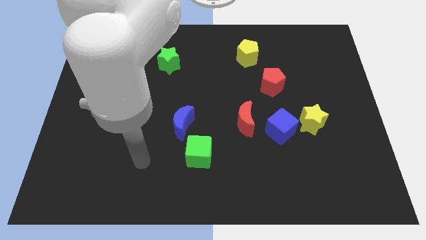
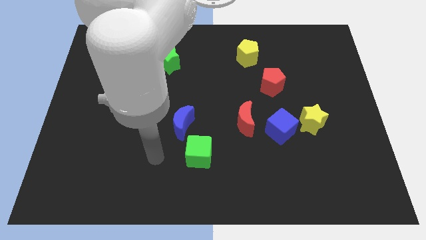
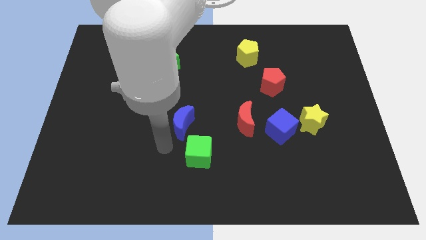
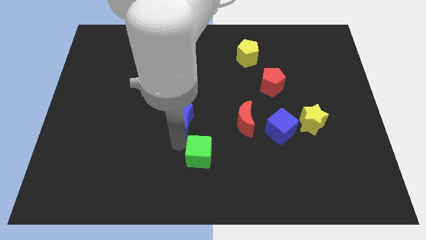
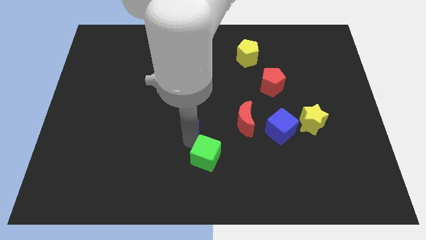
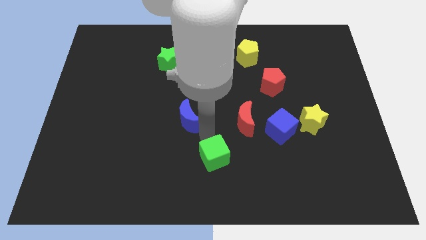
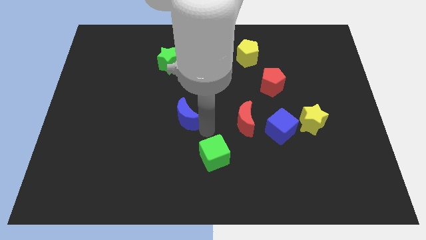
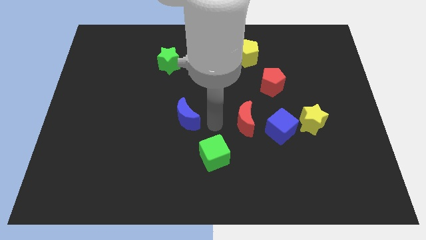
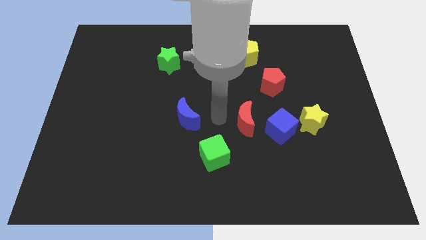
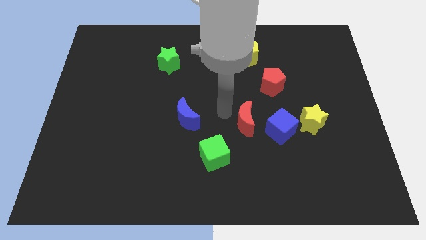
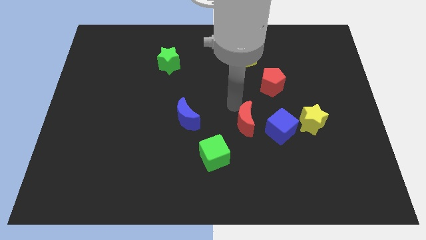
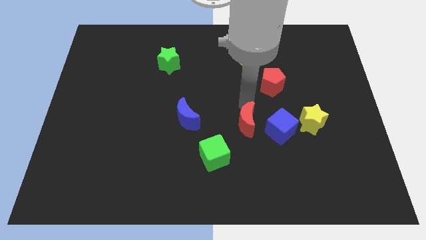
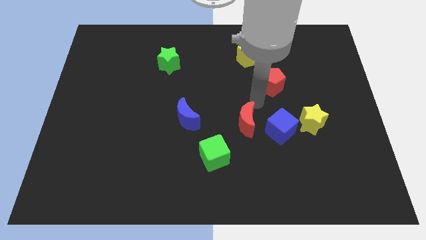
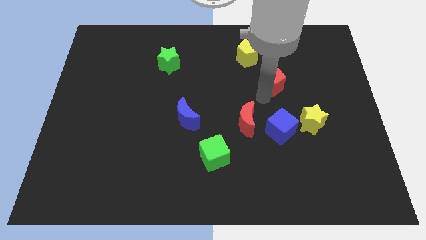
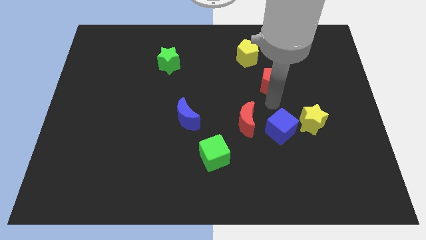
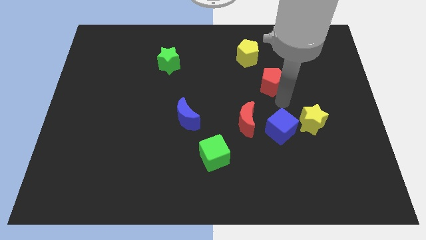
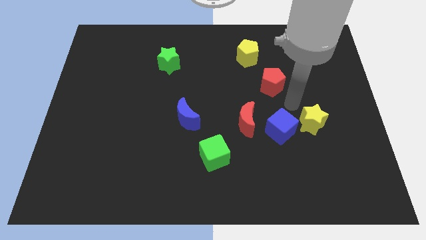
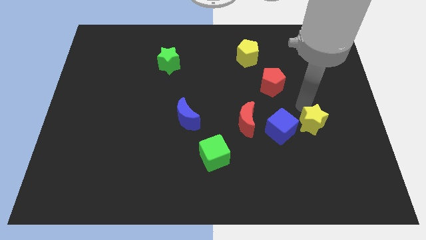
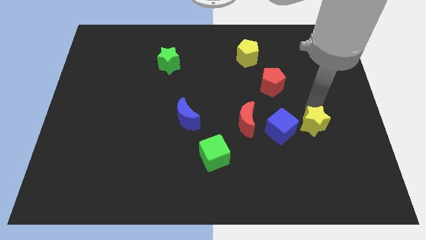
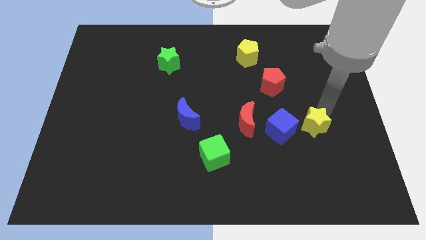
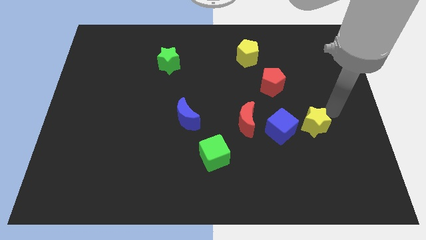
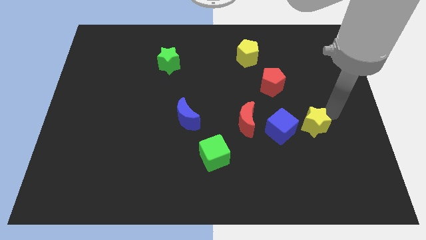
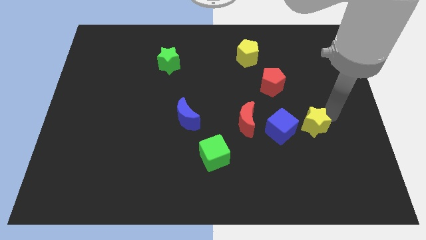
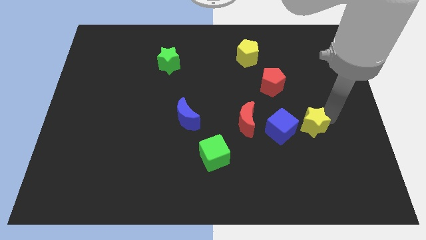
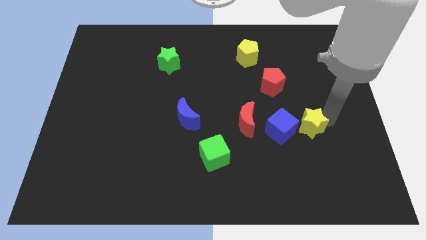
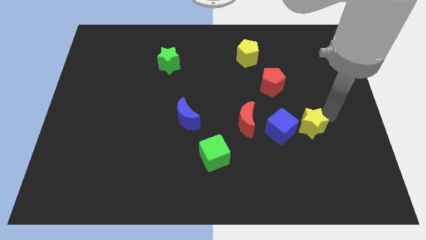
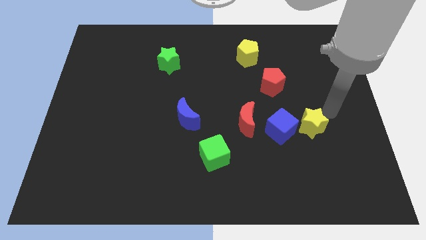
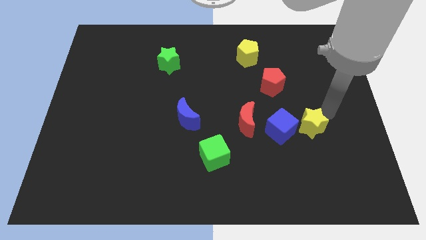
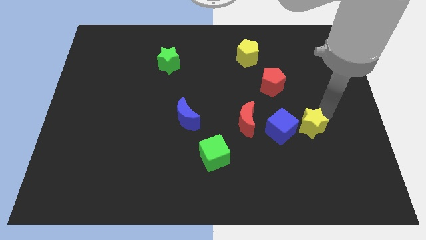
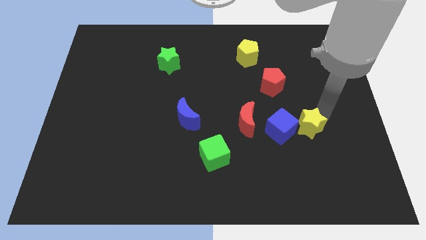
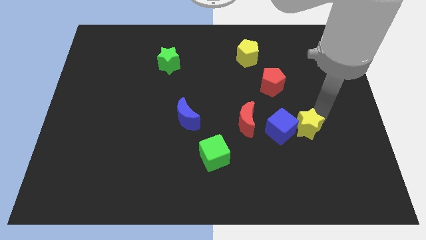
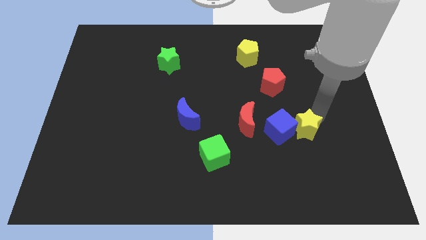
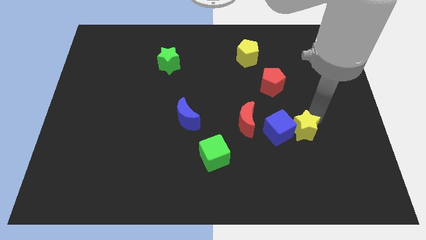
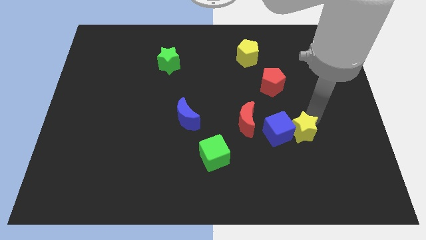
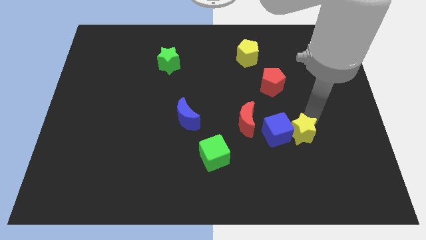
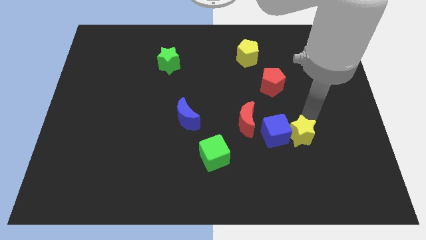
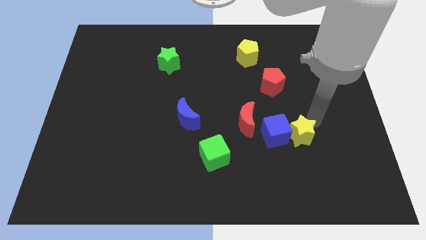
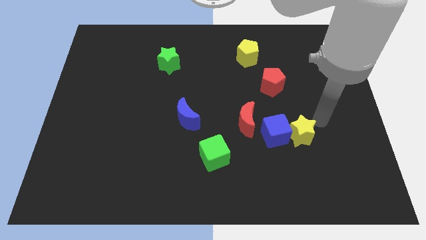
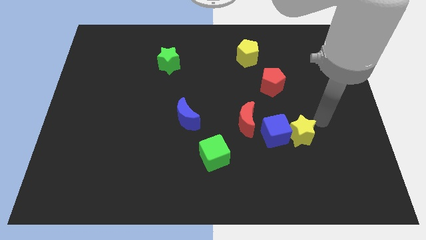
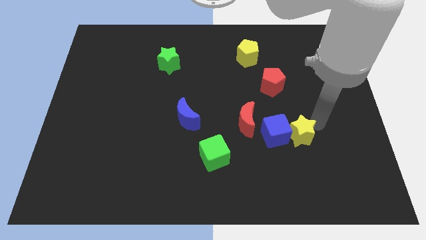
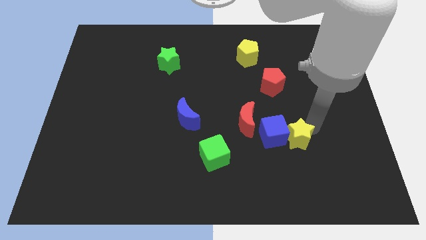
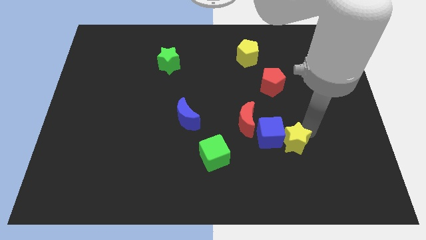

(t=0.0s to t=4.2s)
push the yellow star a little bit downwards and then to the left

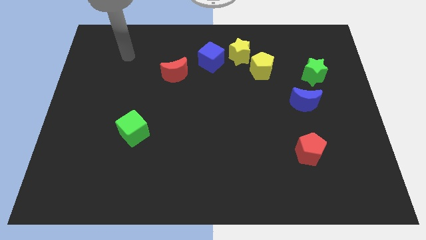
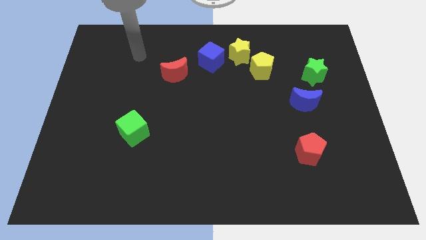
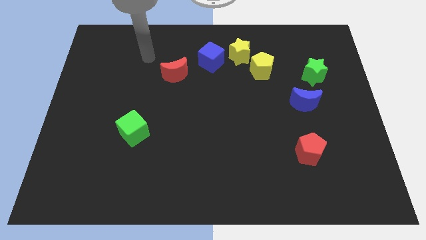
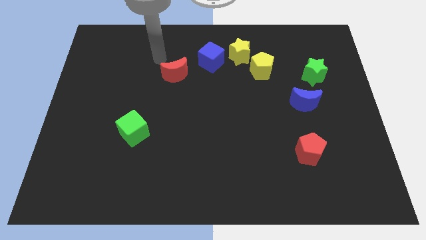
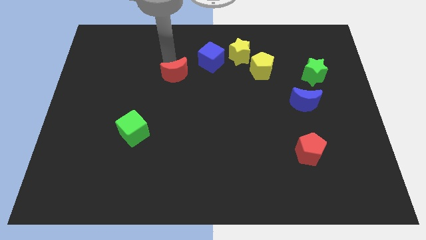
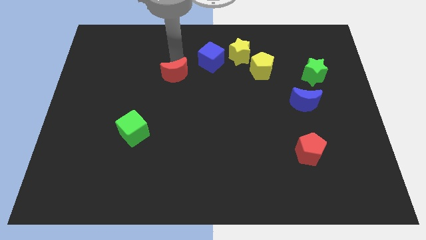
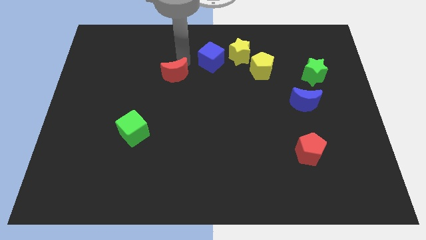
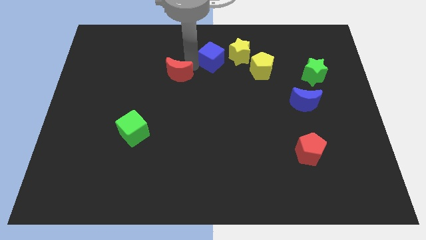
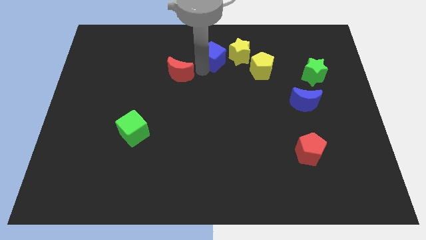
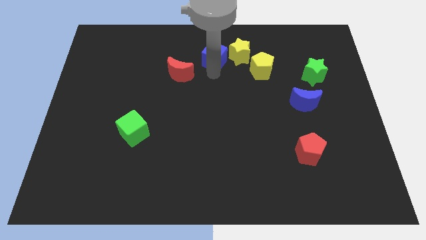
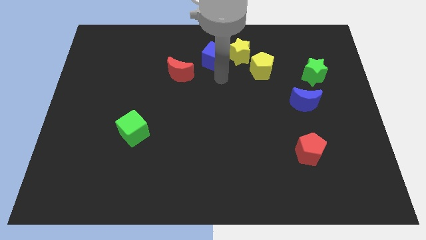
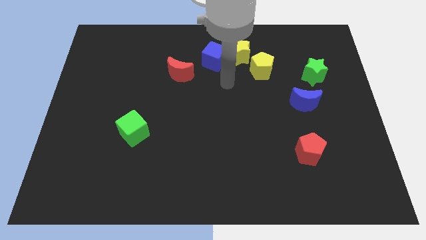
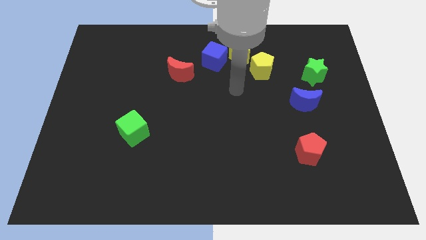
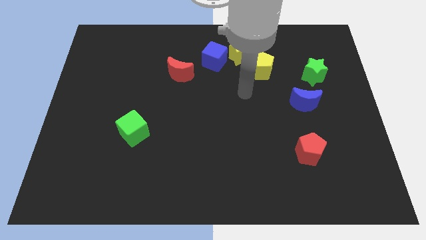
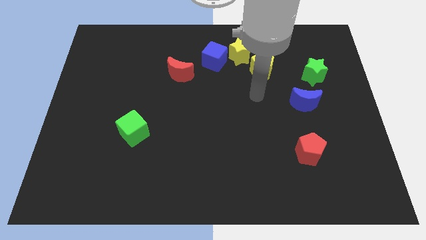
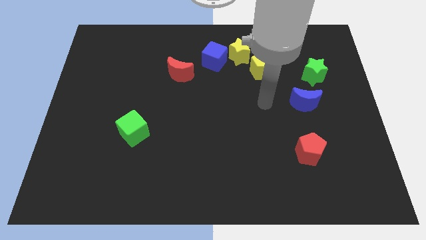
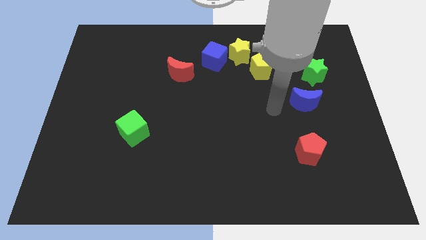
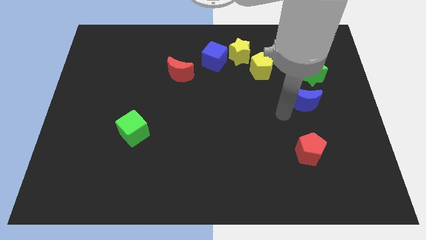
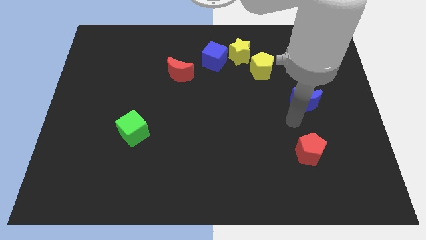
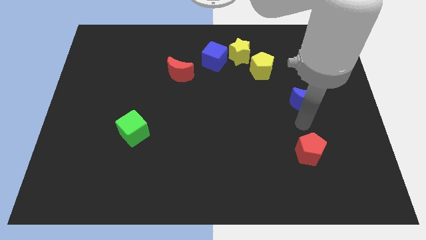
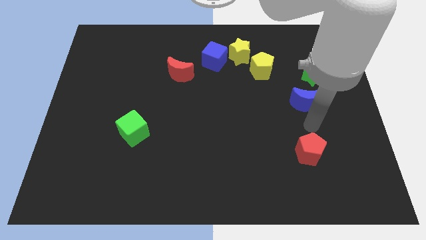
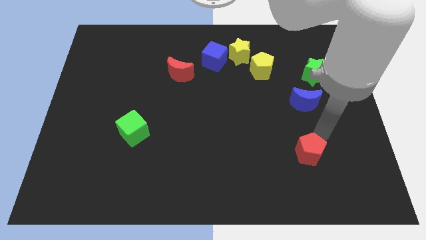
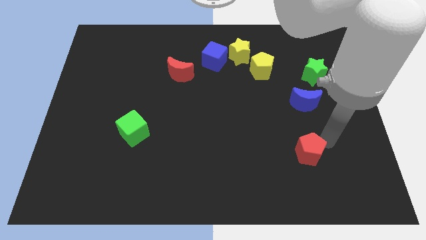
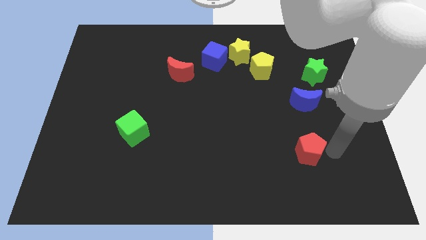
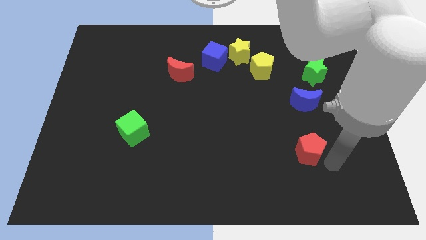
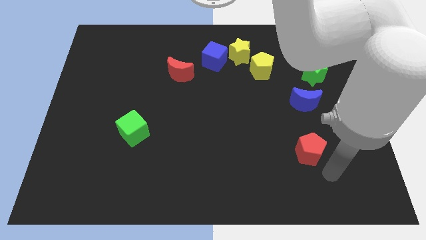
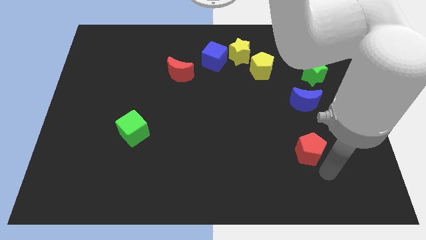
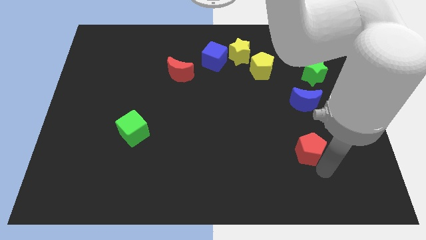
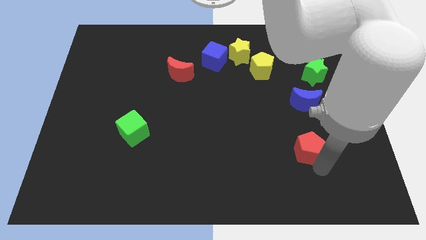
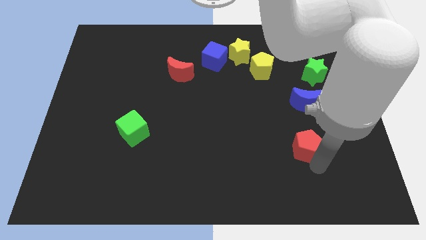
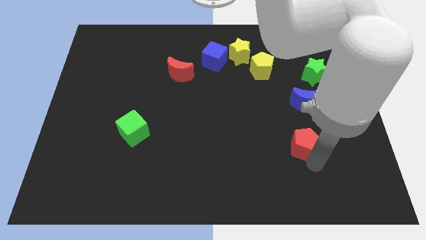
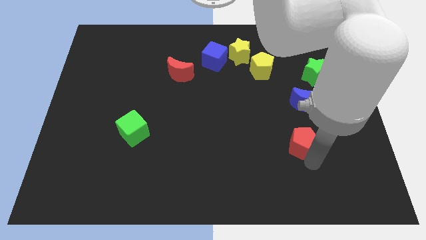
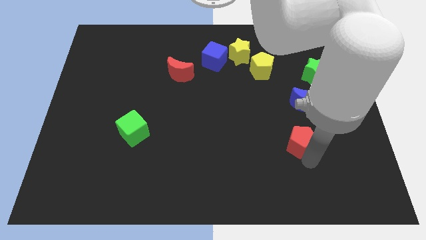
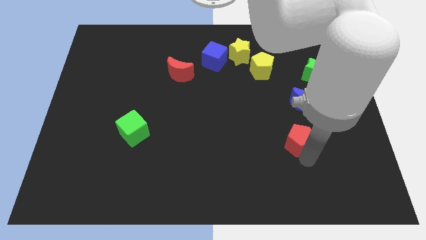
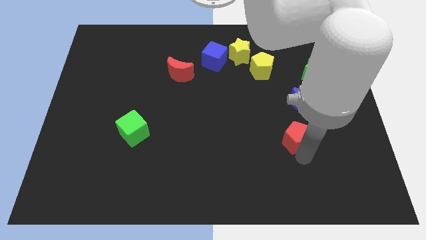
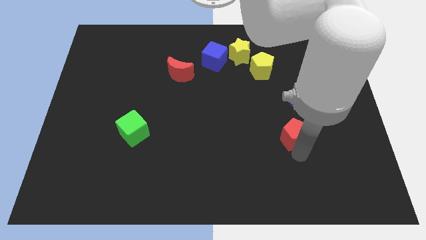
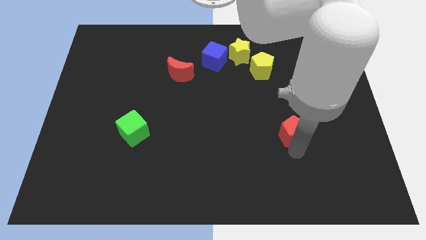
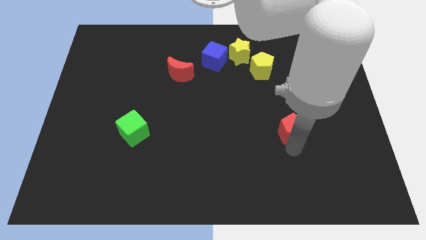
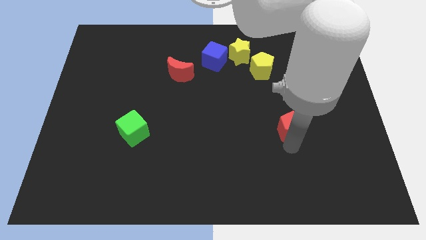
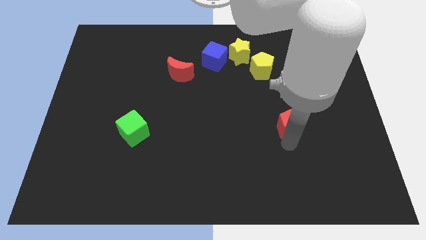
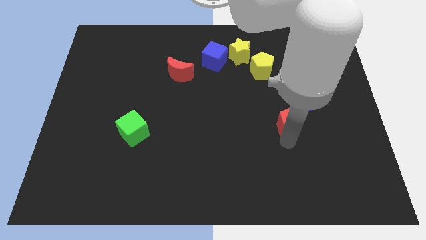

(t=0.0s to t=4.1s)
push the red pentagon slightly upwards
